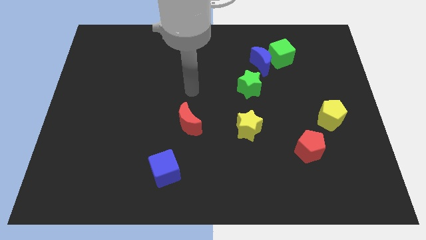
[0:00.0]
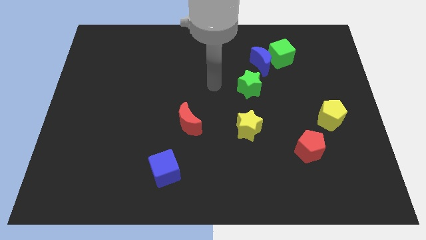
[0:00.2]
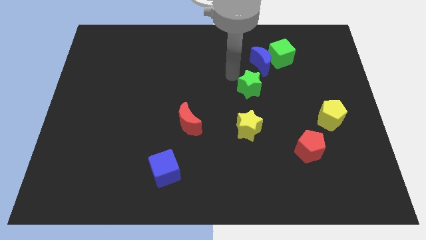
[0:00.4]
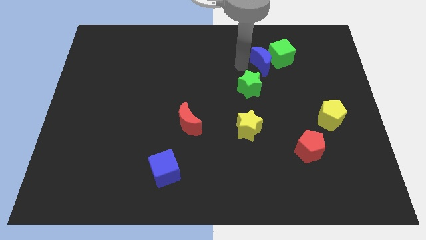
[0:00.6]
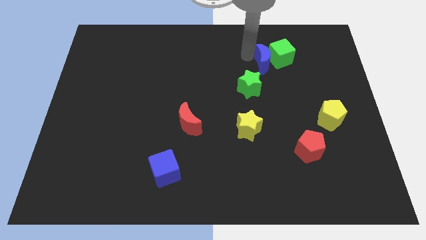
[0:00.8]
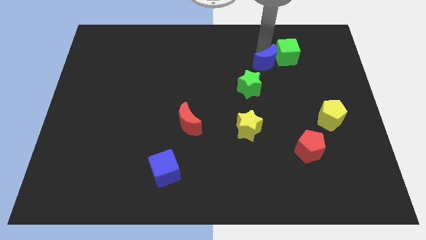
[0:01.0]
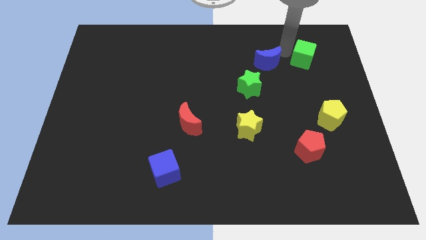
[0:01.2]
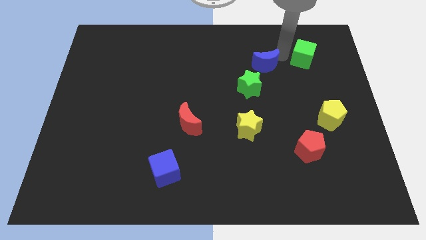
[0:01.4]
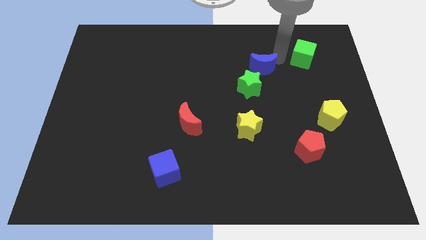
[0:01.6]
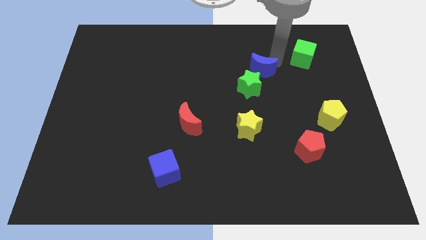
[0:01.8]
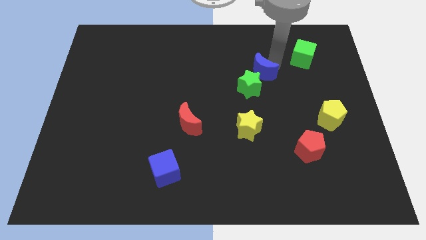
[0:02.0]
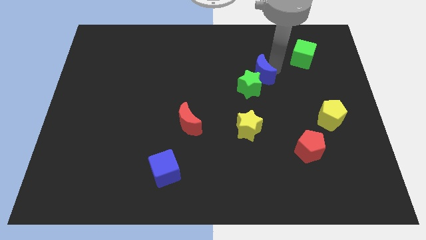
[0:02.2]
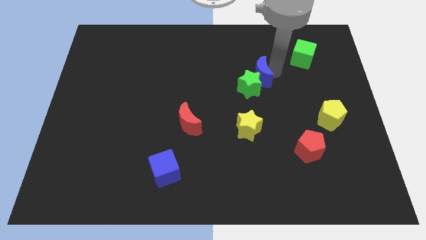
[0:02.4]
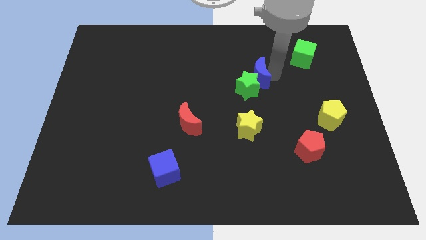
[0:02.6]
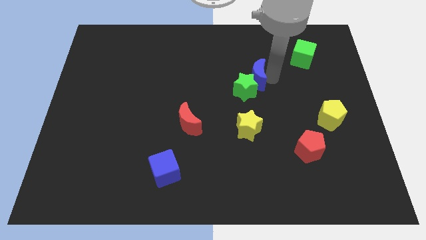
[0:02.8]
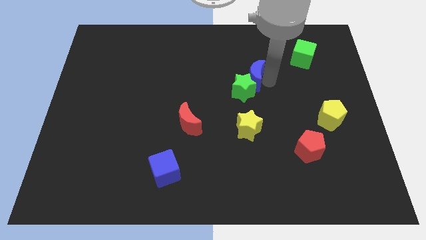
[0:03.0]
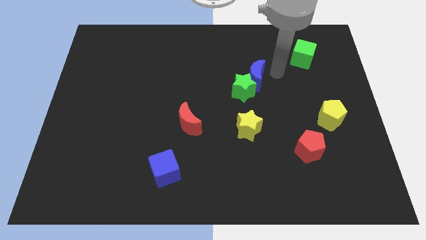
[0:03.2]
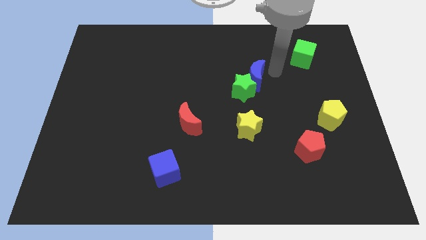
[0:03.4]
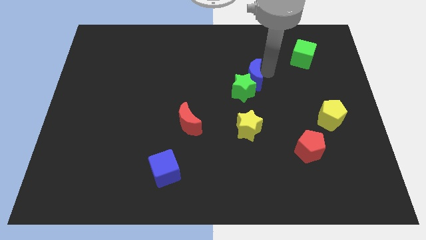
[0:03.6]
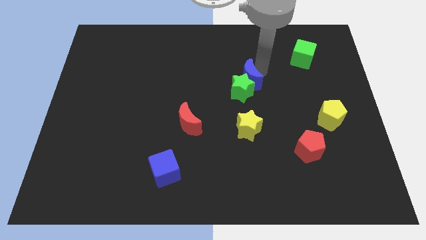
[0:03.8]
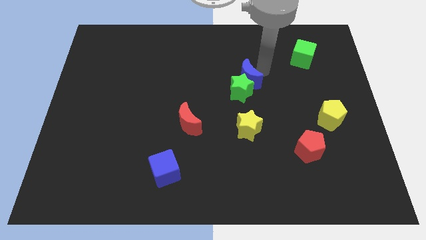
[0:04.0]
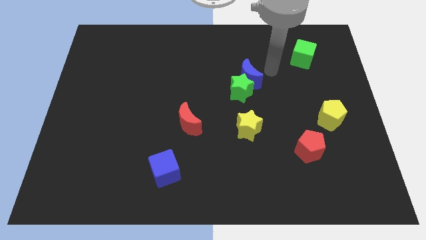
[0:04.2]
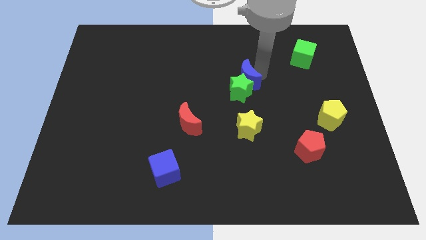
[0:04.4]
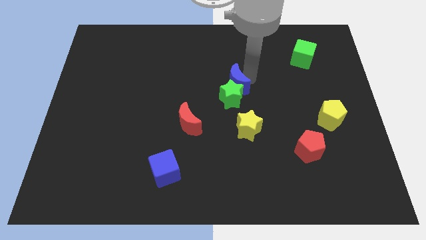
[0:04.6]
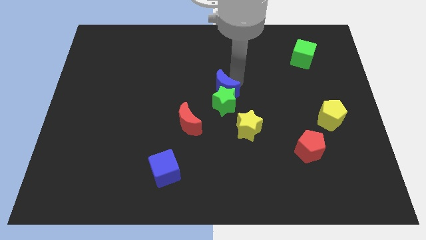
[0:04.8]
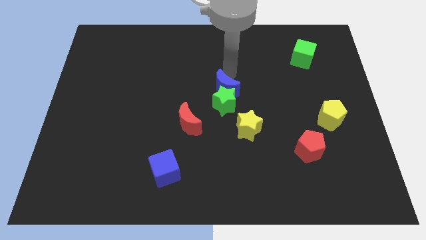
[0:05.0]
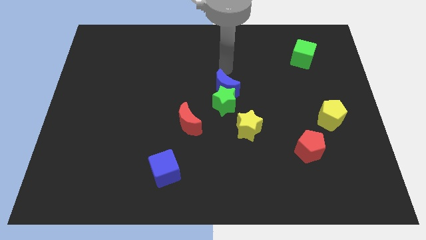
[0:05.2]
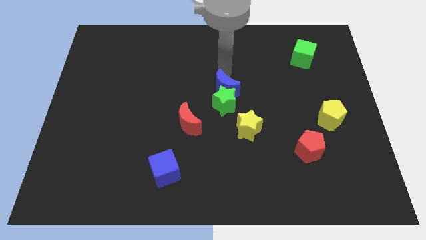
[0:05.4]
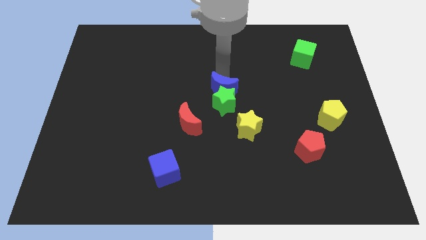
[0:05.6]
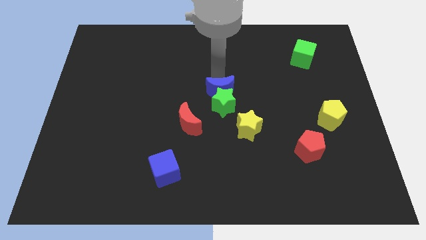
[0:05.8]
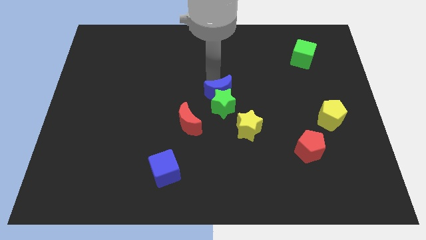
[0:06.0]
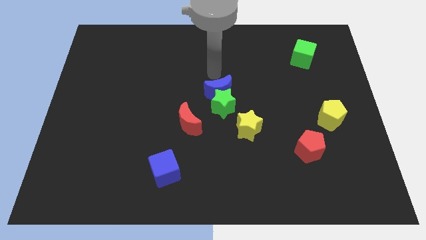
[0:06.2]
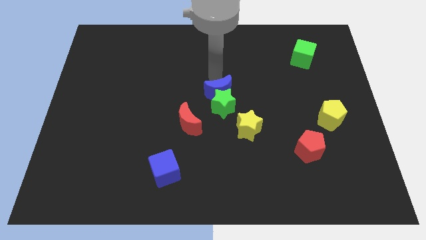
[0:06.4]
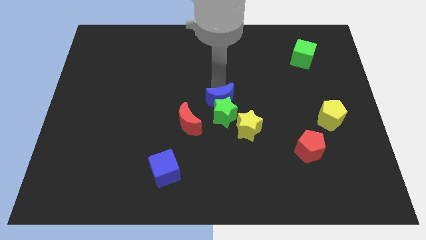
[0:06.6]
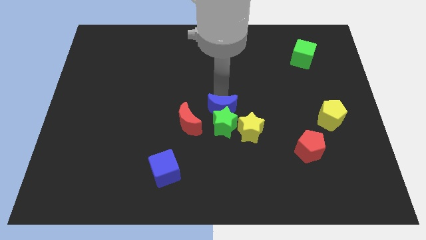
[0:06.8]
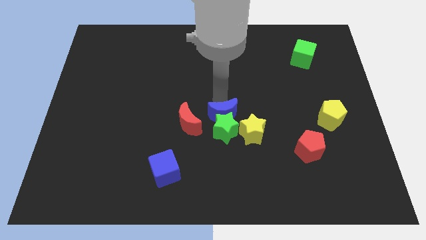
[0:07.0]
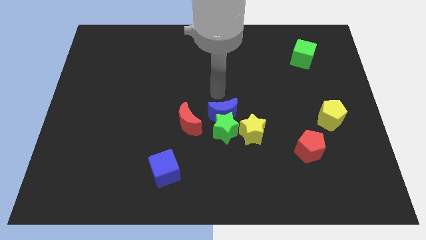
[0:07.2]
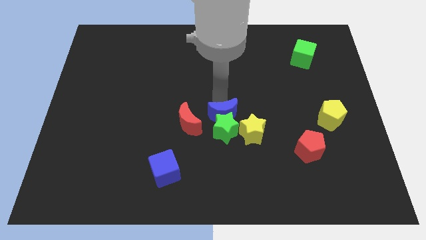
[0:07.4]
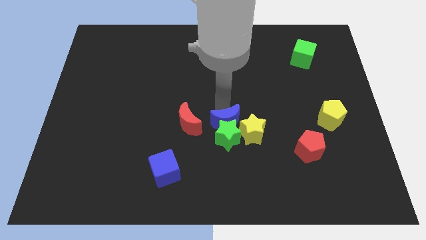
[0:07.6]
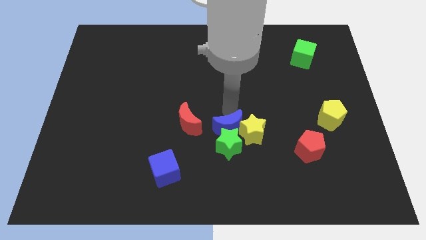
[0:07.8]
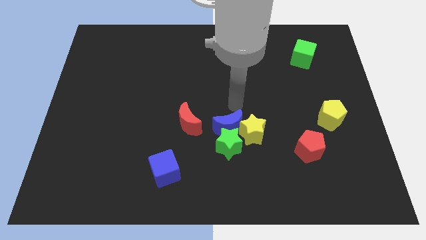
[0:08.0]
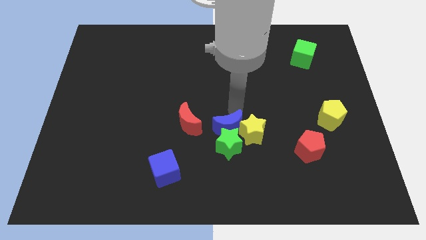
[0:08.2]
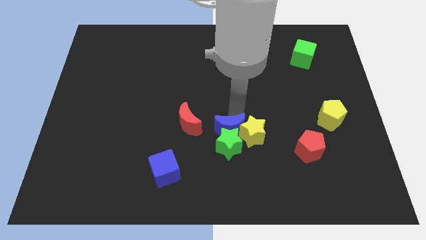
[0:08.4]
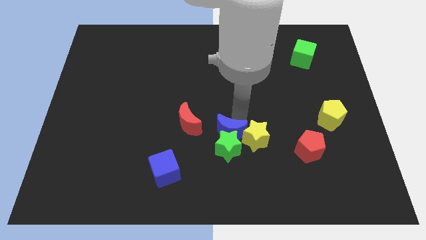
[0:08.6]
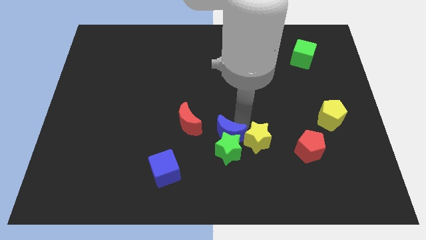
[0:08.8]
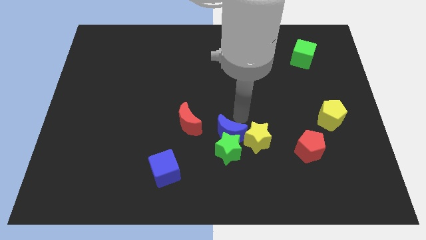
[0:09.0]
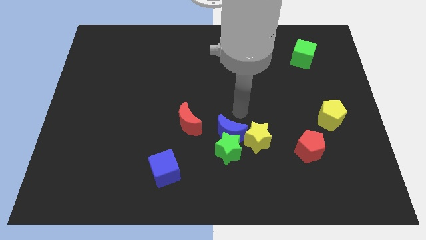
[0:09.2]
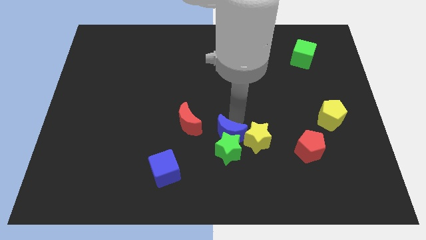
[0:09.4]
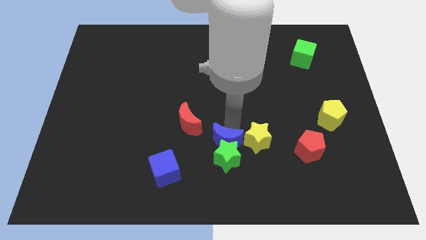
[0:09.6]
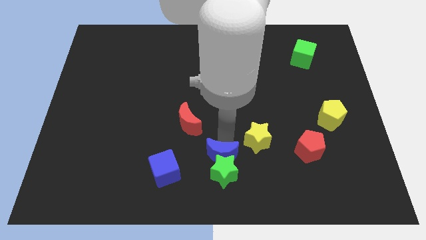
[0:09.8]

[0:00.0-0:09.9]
put the blue moon to the bottom

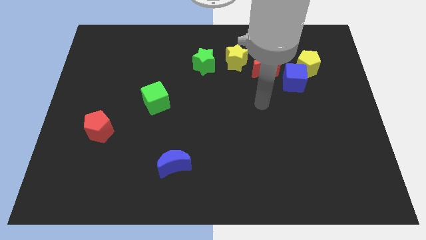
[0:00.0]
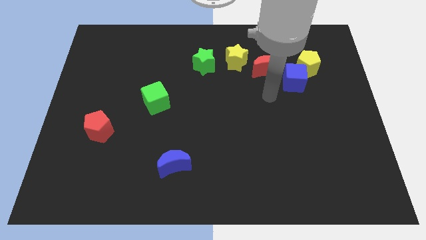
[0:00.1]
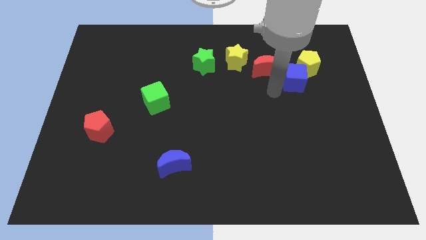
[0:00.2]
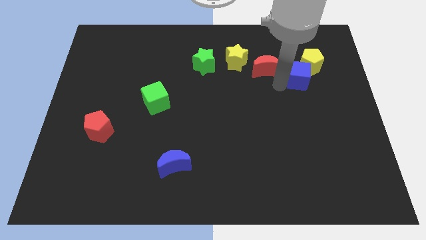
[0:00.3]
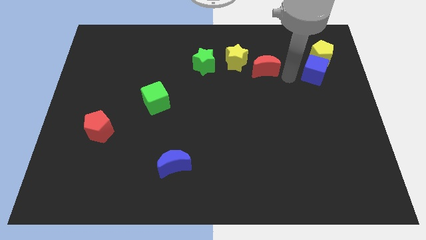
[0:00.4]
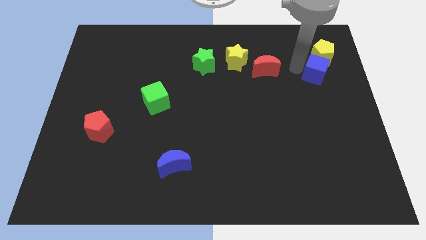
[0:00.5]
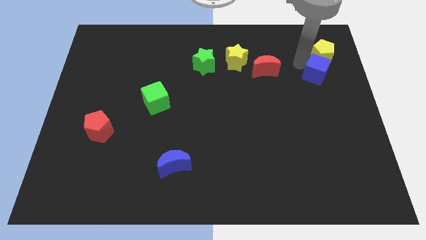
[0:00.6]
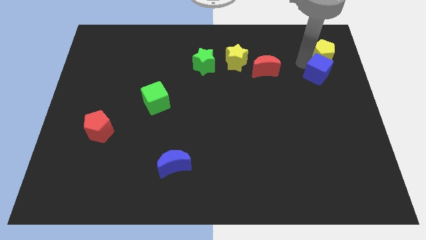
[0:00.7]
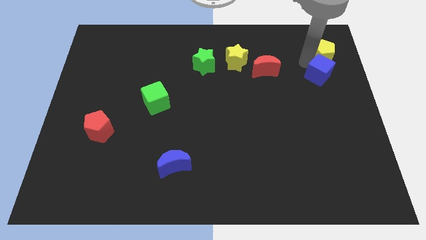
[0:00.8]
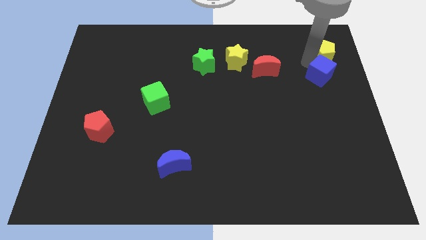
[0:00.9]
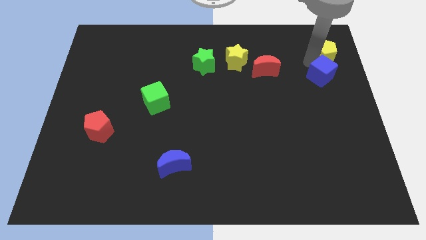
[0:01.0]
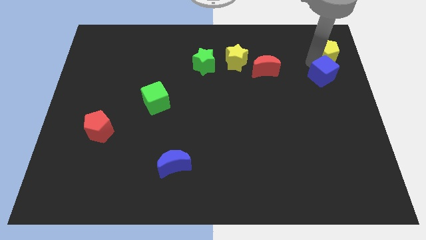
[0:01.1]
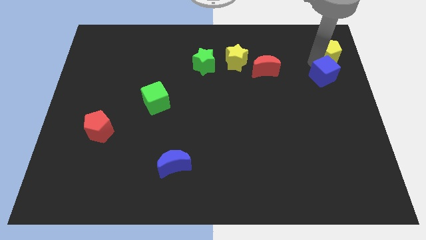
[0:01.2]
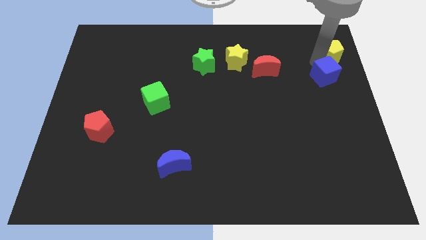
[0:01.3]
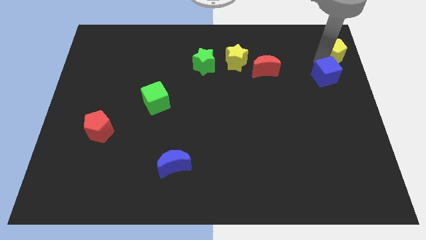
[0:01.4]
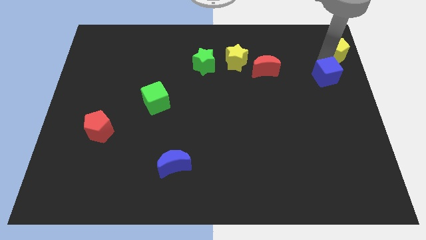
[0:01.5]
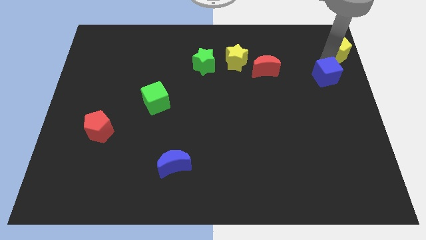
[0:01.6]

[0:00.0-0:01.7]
push the yellow pentagon to the upper right corner
